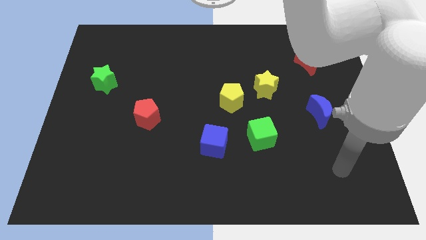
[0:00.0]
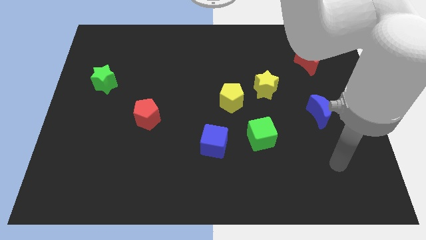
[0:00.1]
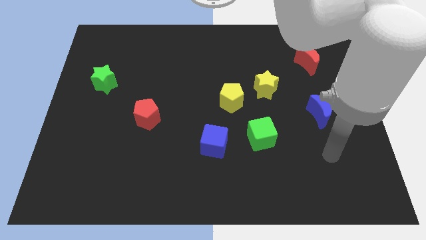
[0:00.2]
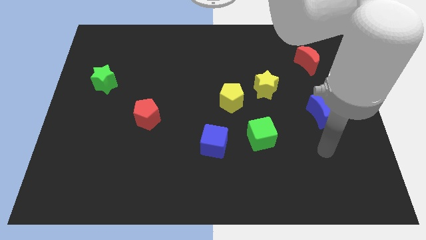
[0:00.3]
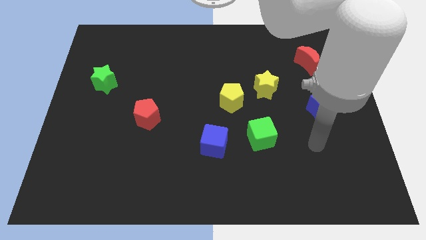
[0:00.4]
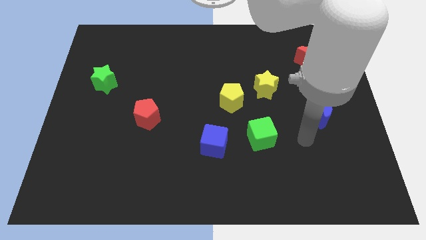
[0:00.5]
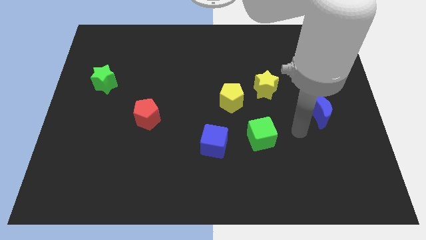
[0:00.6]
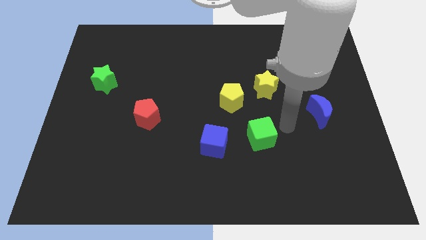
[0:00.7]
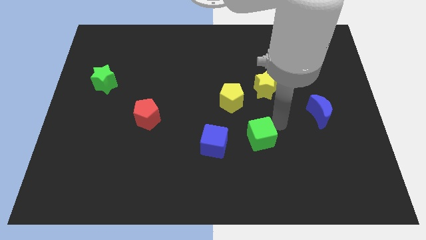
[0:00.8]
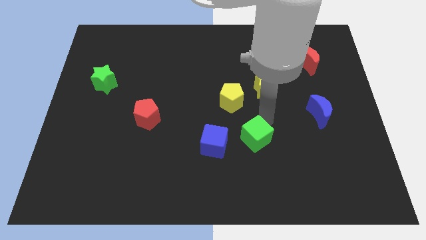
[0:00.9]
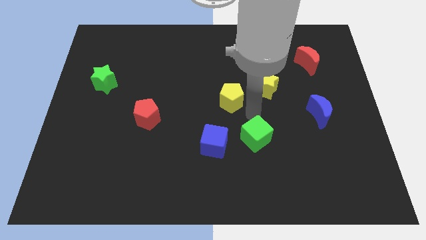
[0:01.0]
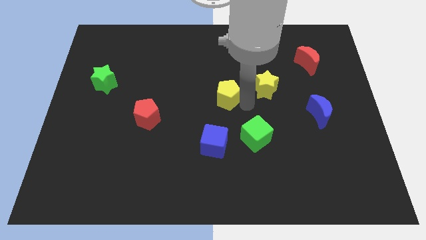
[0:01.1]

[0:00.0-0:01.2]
move the yellow star away from the yellow pentagon

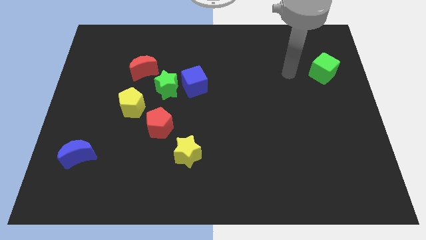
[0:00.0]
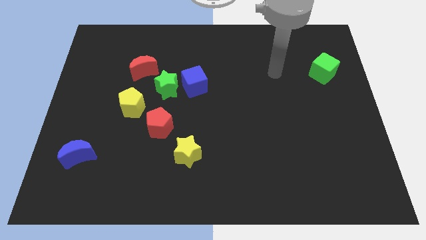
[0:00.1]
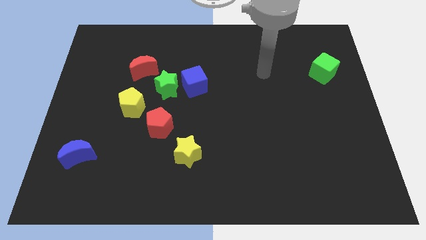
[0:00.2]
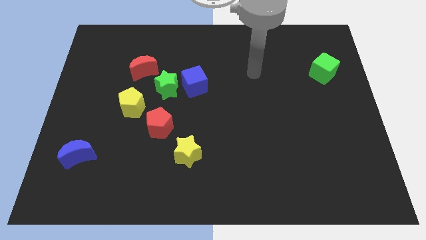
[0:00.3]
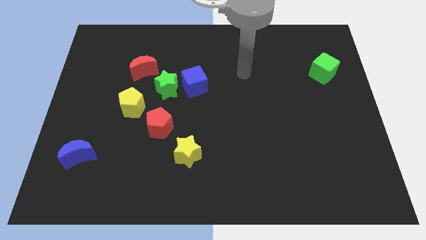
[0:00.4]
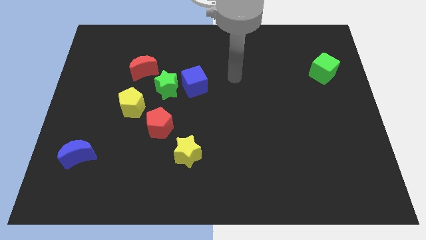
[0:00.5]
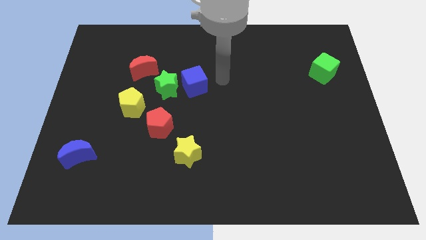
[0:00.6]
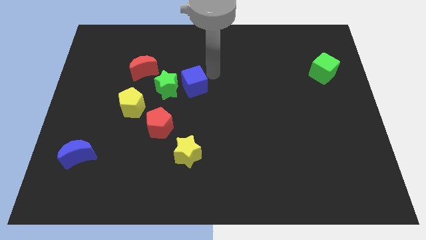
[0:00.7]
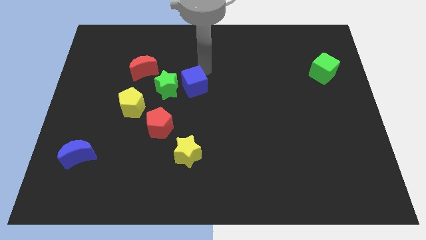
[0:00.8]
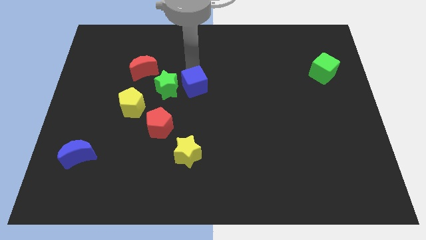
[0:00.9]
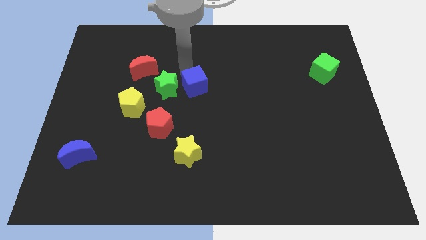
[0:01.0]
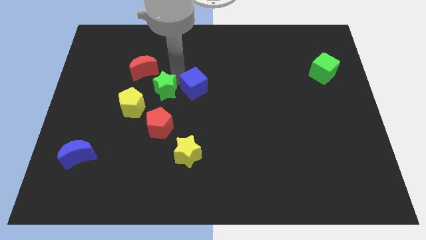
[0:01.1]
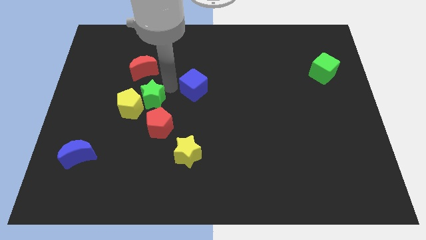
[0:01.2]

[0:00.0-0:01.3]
move the blue cube away from the green star

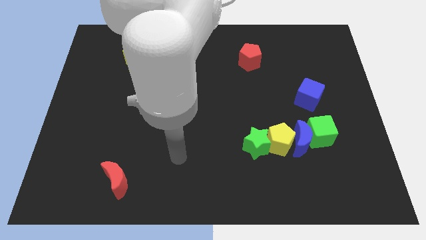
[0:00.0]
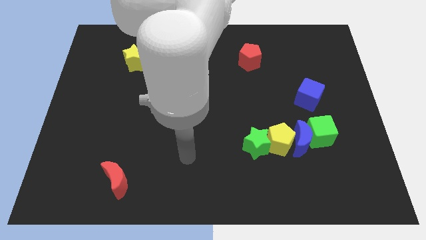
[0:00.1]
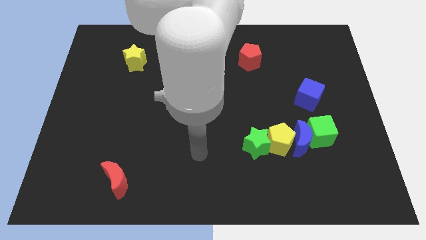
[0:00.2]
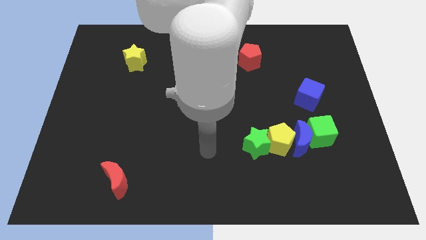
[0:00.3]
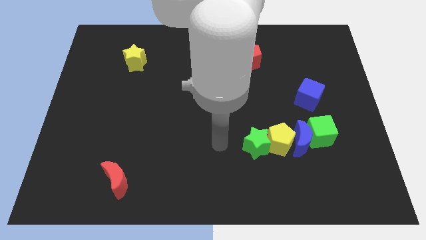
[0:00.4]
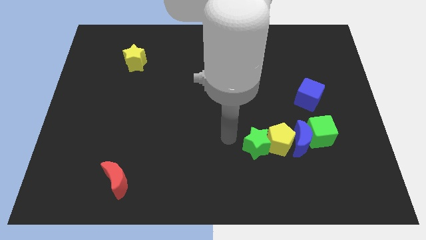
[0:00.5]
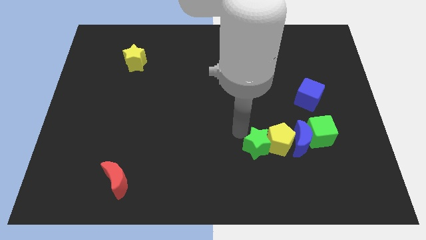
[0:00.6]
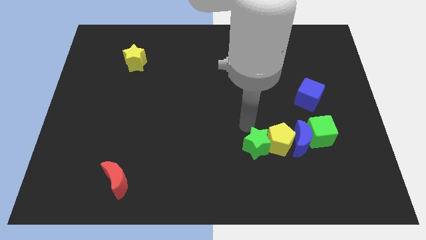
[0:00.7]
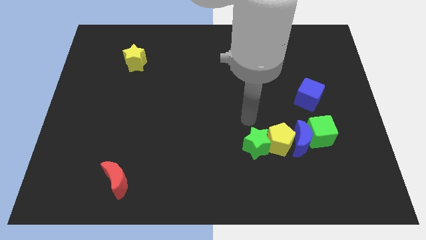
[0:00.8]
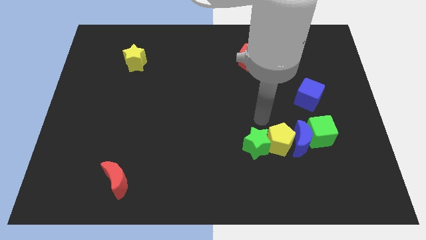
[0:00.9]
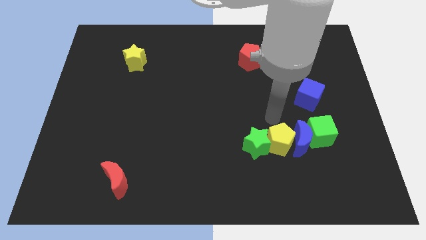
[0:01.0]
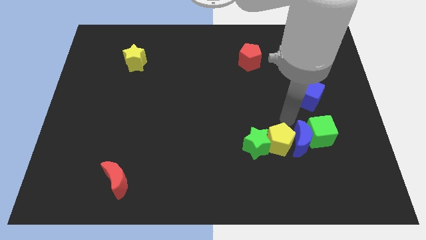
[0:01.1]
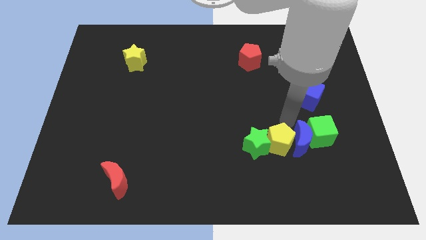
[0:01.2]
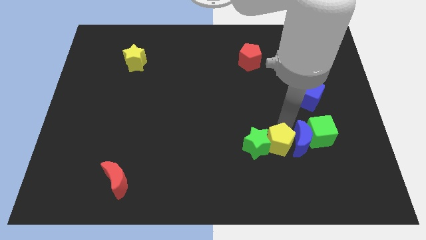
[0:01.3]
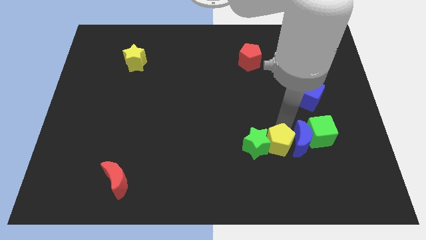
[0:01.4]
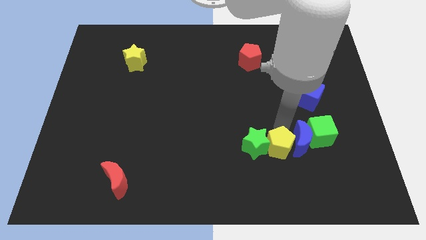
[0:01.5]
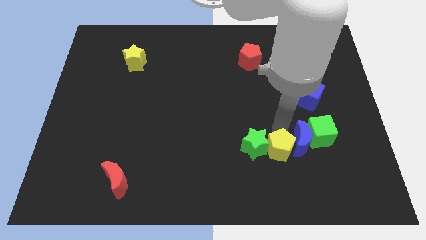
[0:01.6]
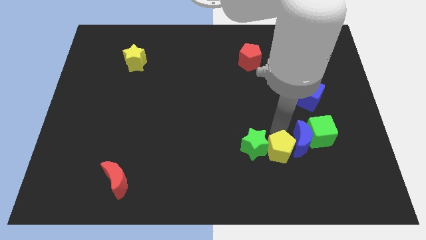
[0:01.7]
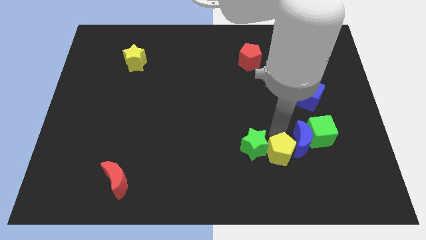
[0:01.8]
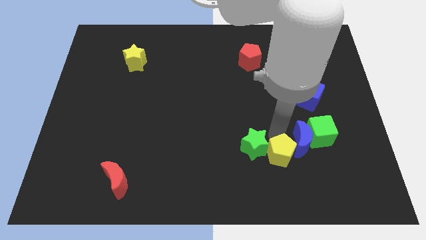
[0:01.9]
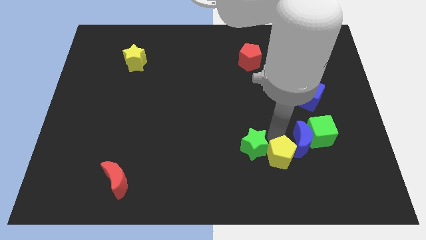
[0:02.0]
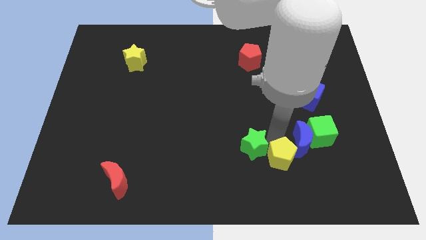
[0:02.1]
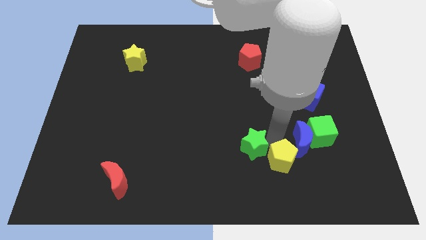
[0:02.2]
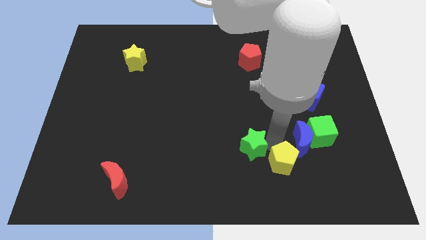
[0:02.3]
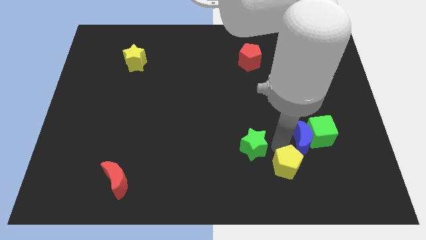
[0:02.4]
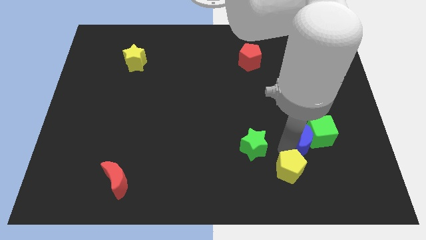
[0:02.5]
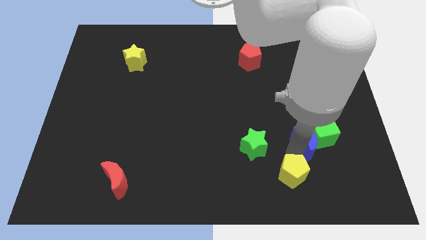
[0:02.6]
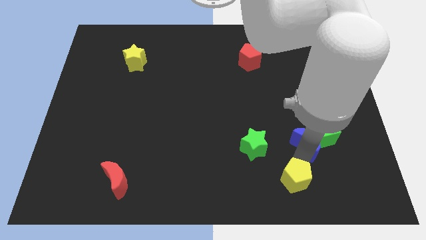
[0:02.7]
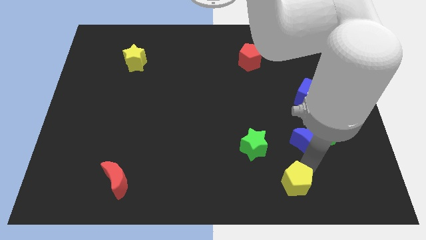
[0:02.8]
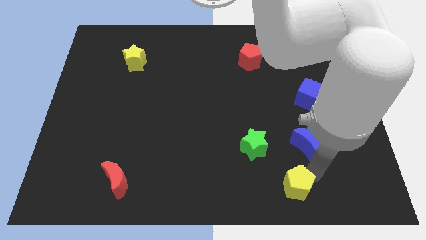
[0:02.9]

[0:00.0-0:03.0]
pull the yellow pentagon apart from the group

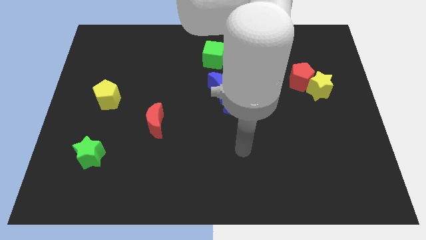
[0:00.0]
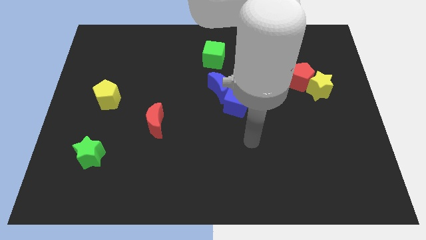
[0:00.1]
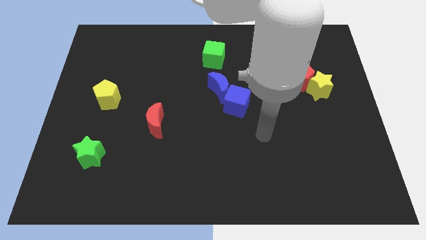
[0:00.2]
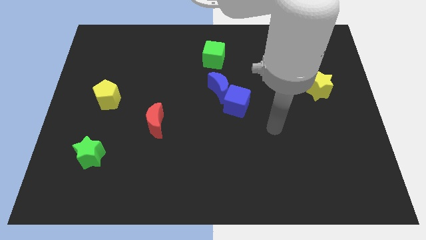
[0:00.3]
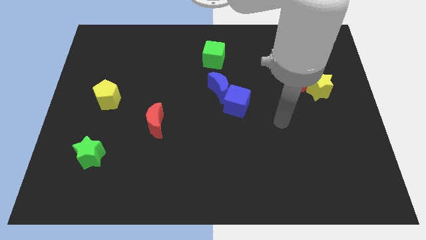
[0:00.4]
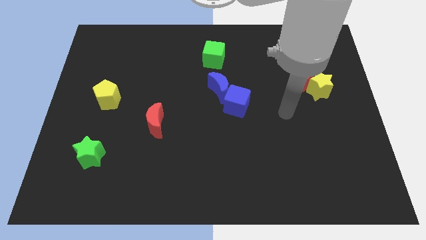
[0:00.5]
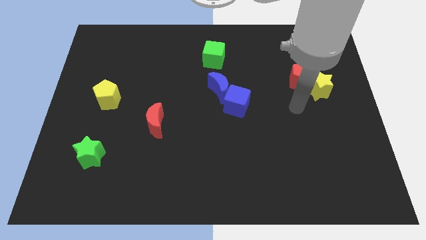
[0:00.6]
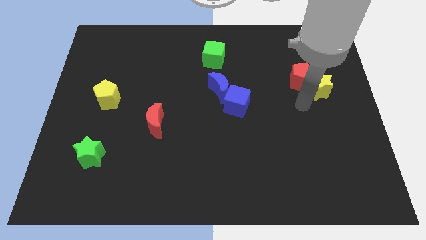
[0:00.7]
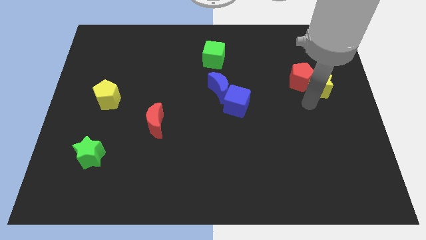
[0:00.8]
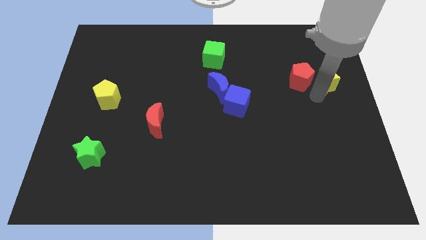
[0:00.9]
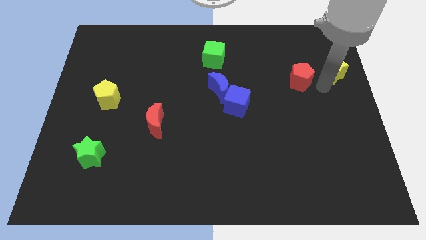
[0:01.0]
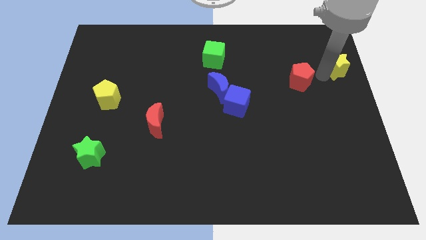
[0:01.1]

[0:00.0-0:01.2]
pull the red pentagon apart from the yellow star

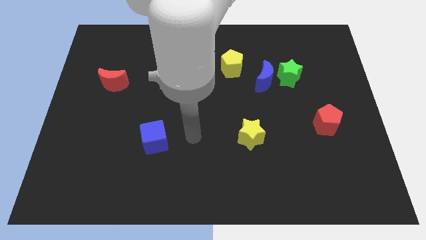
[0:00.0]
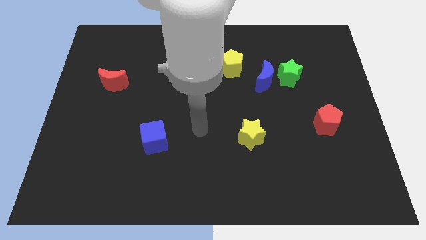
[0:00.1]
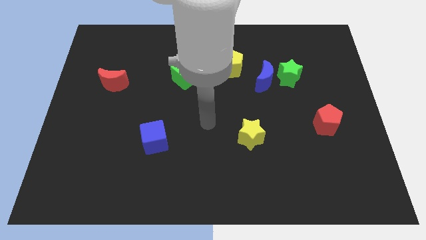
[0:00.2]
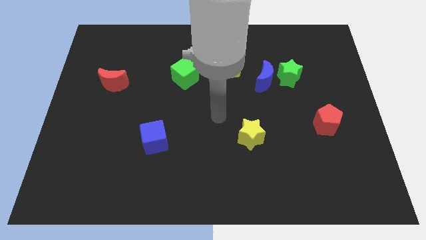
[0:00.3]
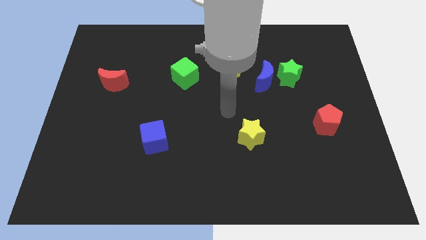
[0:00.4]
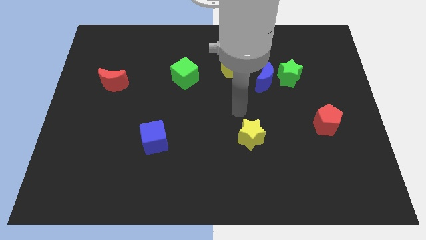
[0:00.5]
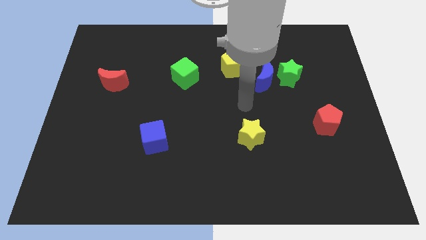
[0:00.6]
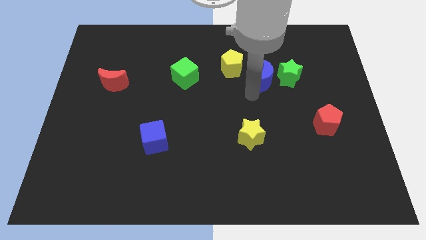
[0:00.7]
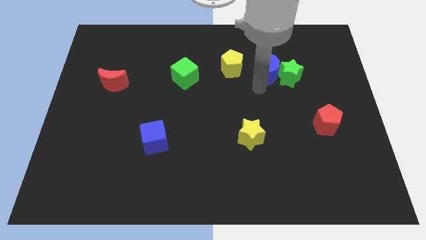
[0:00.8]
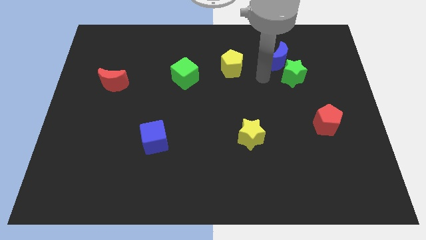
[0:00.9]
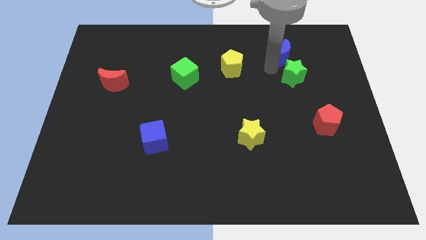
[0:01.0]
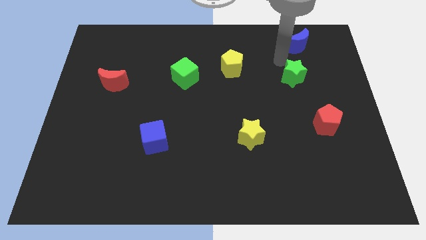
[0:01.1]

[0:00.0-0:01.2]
separate the green star from the blue moon

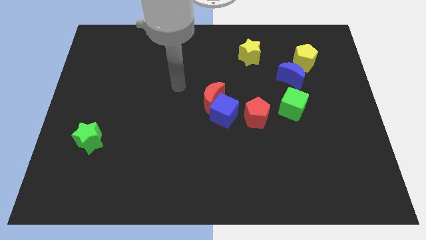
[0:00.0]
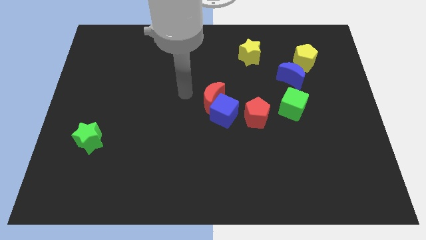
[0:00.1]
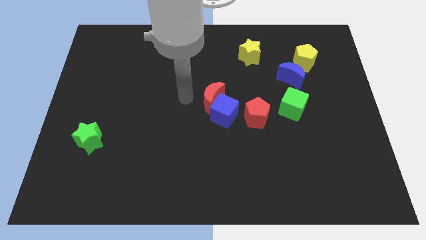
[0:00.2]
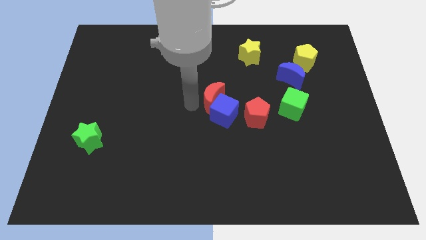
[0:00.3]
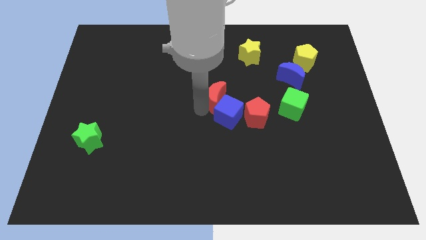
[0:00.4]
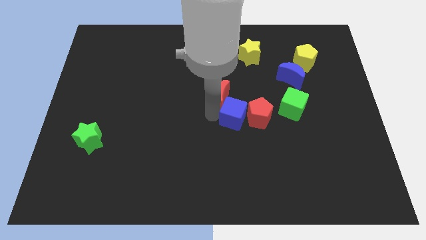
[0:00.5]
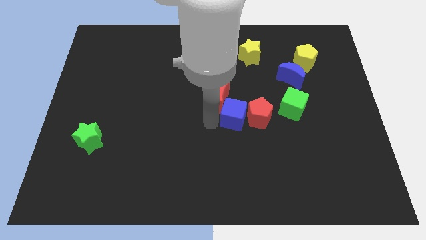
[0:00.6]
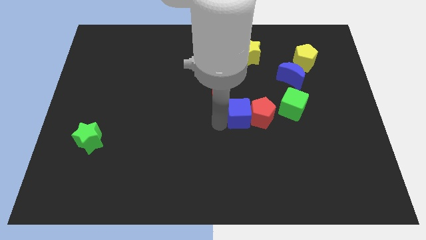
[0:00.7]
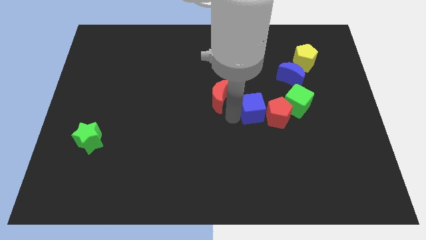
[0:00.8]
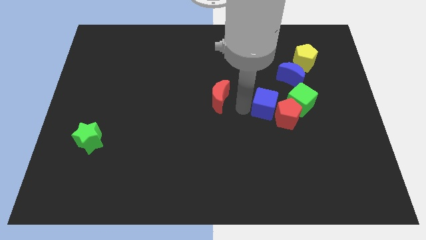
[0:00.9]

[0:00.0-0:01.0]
move the red moon away from the blue cube

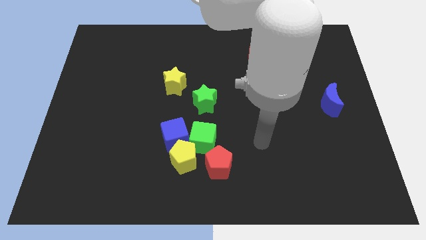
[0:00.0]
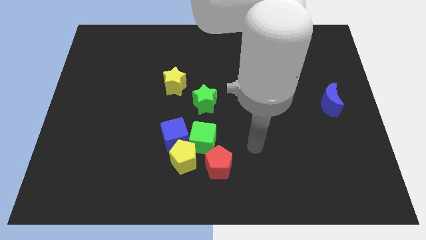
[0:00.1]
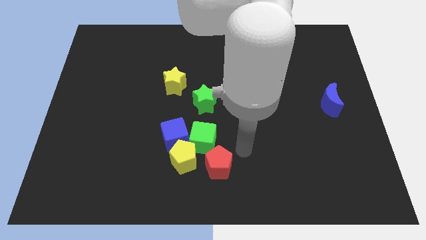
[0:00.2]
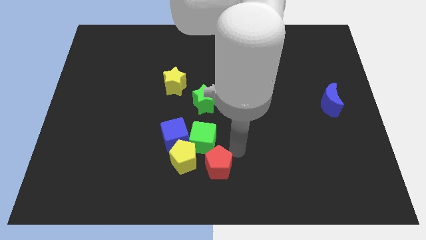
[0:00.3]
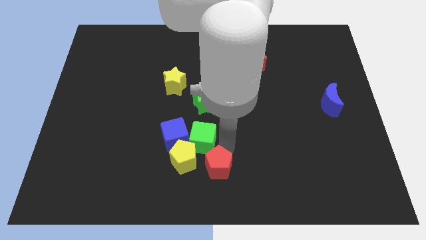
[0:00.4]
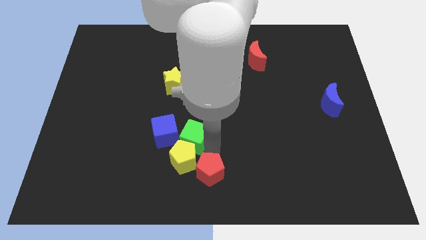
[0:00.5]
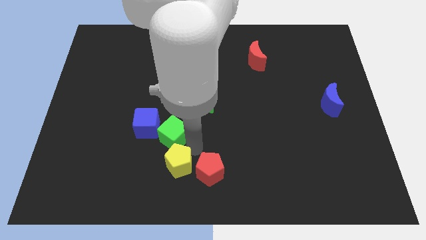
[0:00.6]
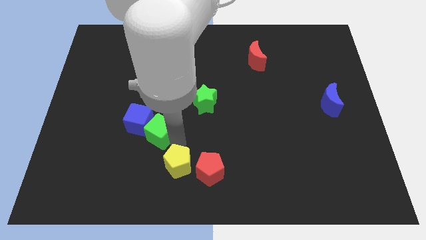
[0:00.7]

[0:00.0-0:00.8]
pull the blue cube apart from the yellow pentagon and green cube
